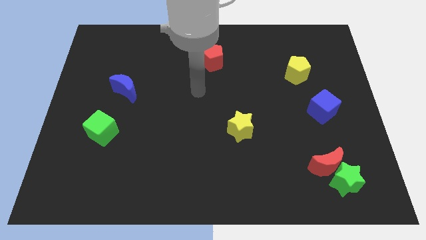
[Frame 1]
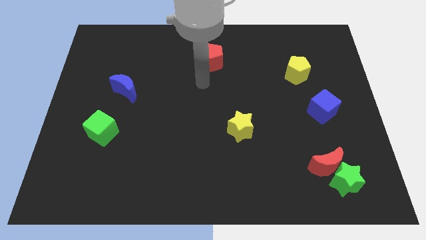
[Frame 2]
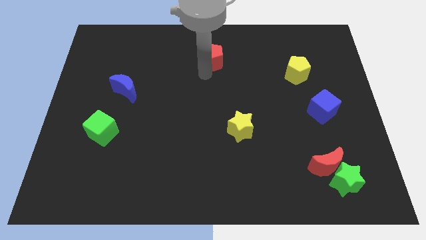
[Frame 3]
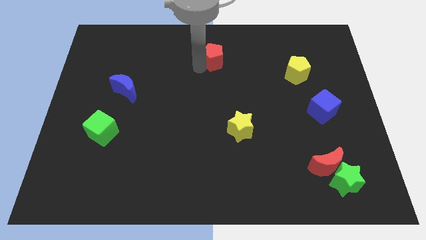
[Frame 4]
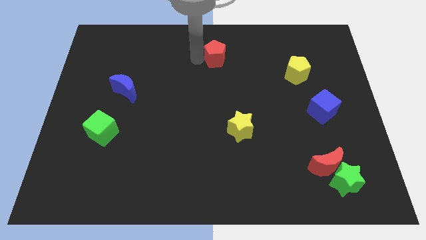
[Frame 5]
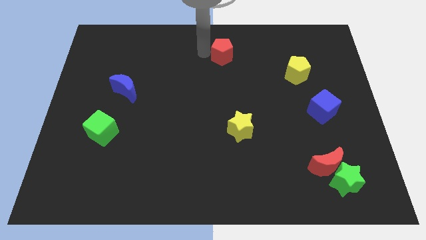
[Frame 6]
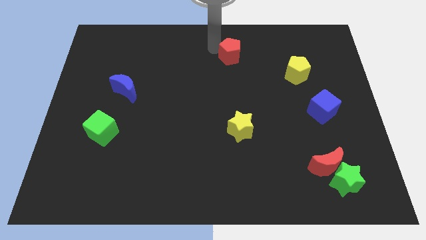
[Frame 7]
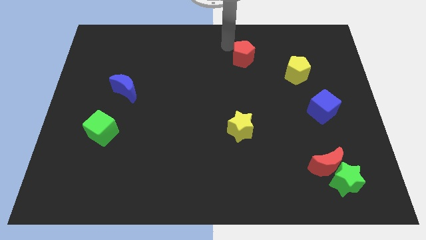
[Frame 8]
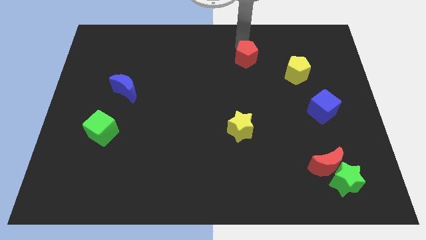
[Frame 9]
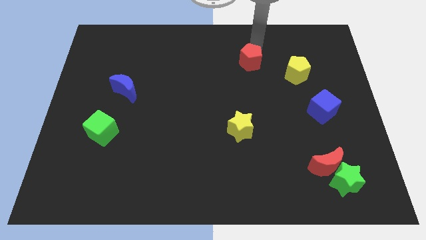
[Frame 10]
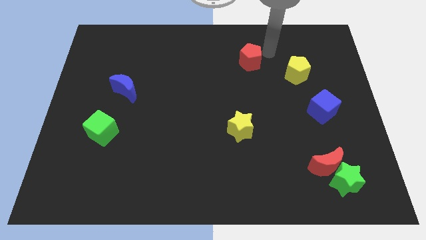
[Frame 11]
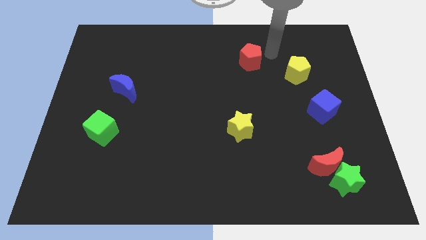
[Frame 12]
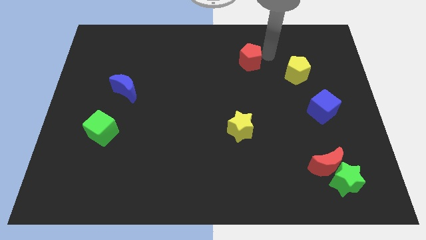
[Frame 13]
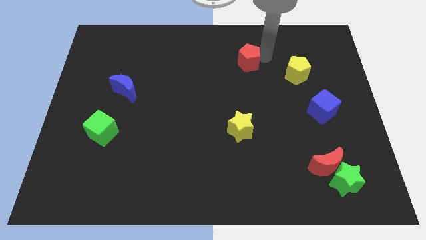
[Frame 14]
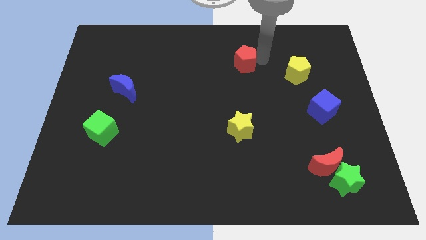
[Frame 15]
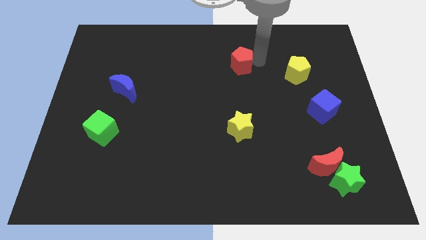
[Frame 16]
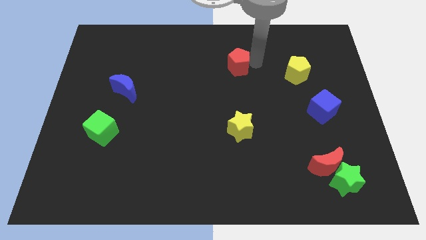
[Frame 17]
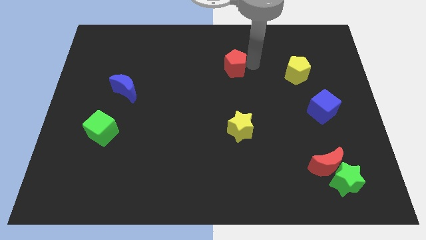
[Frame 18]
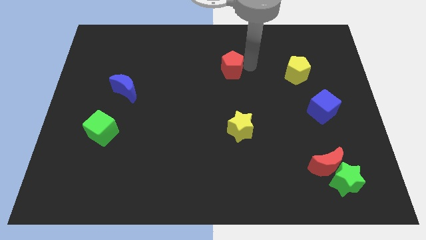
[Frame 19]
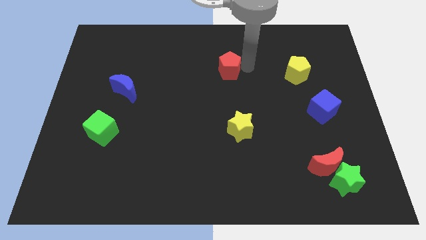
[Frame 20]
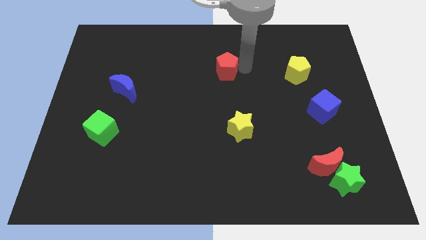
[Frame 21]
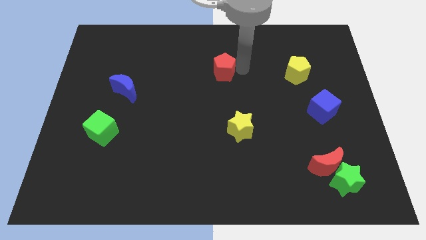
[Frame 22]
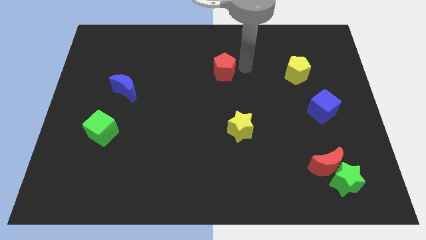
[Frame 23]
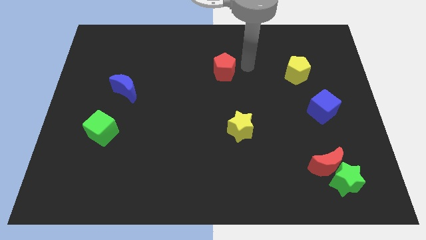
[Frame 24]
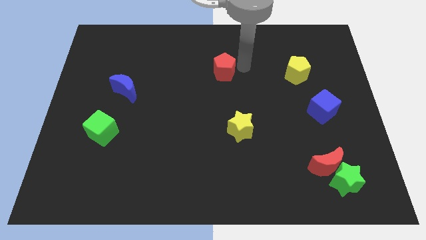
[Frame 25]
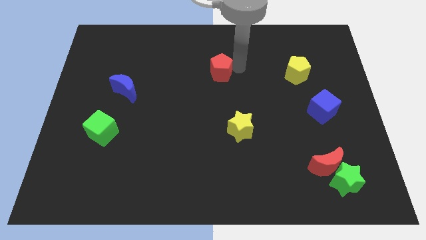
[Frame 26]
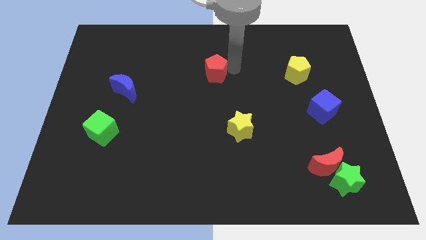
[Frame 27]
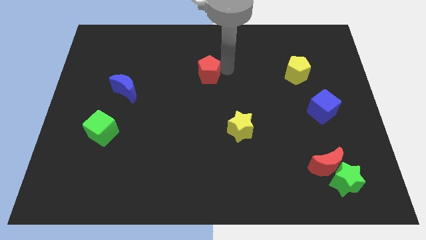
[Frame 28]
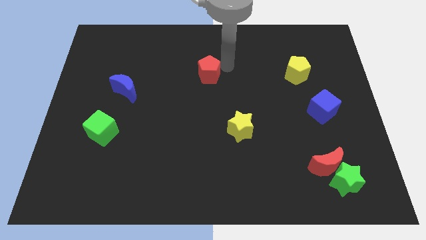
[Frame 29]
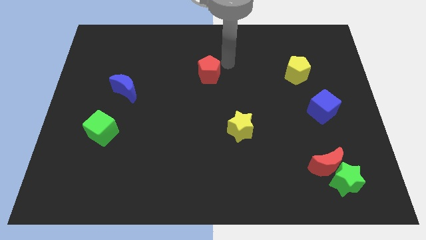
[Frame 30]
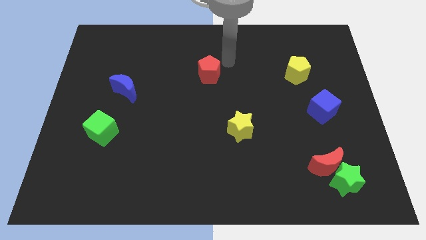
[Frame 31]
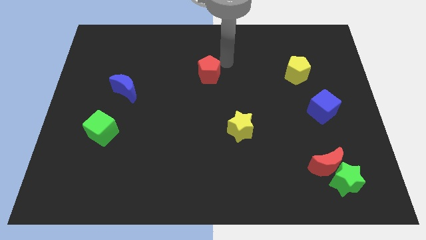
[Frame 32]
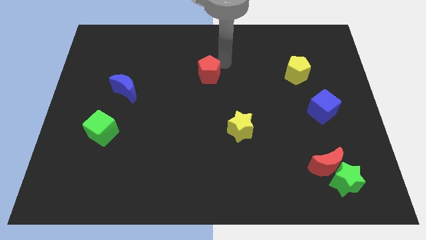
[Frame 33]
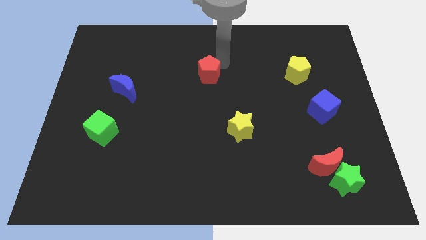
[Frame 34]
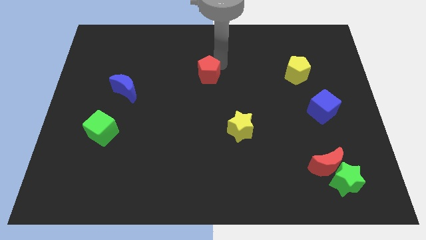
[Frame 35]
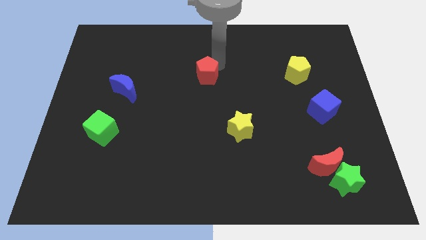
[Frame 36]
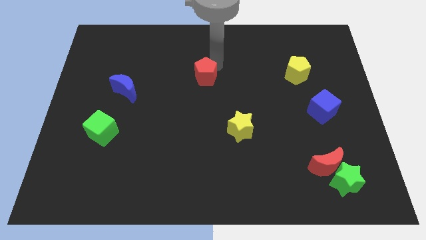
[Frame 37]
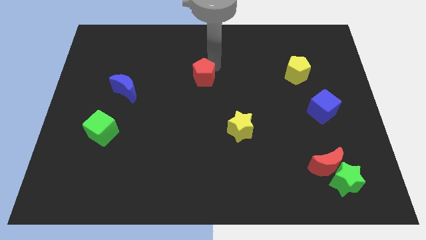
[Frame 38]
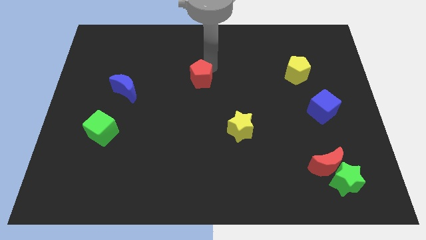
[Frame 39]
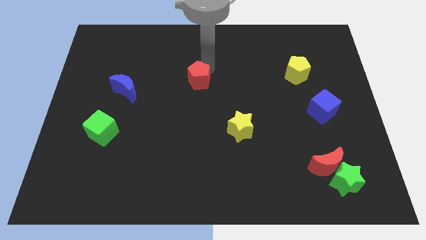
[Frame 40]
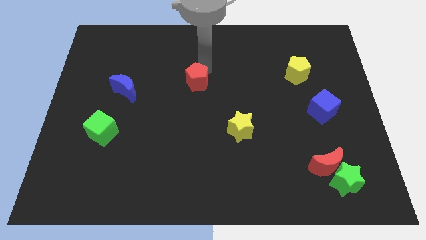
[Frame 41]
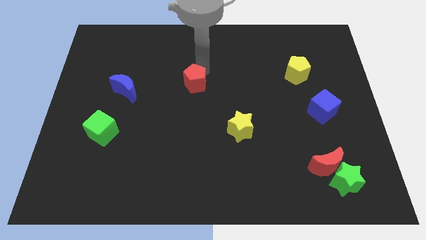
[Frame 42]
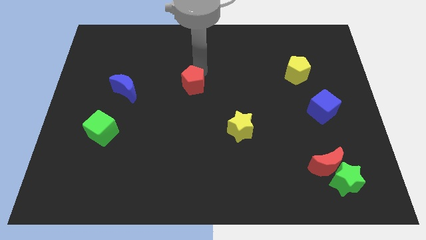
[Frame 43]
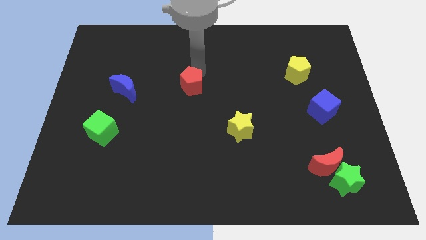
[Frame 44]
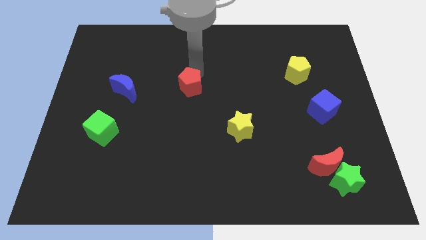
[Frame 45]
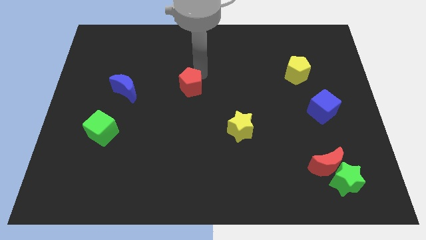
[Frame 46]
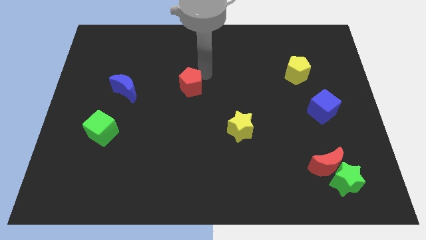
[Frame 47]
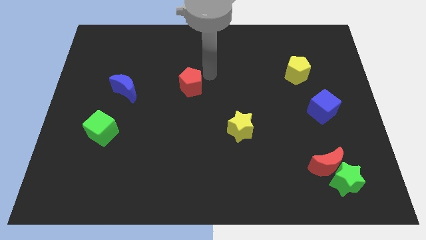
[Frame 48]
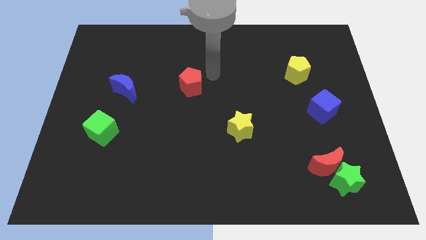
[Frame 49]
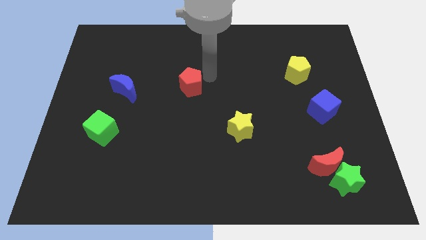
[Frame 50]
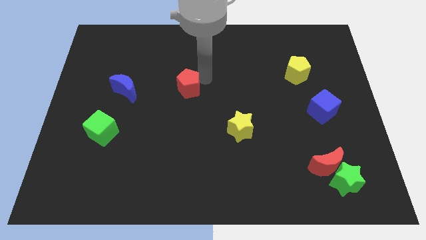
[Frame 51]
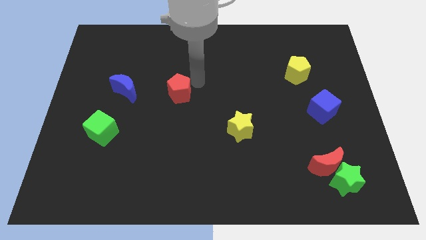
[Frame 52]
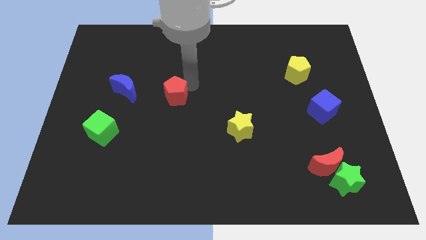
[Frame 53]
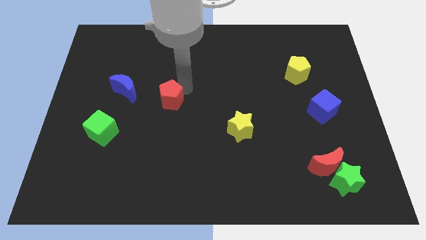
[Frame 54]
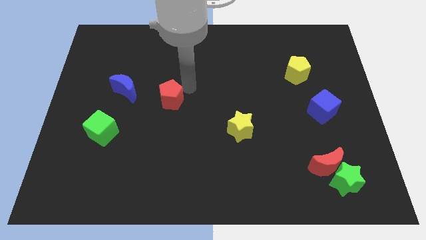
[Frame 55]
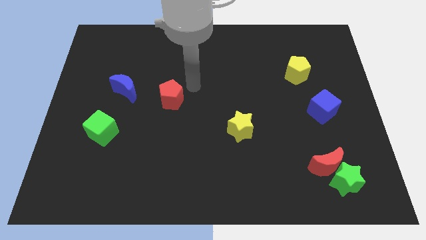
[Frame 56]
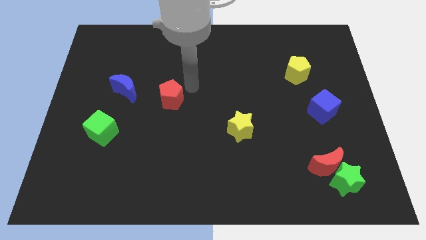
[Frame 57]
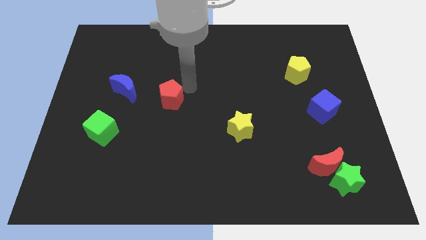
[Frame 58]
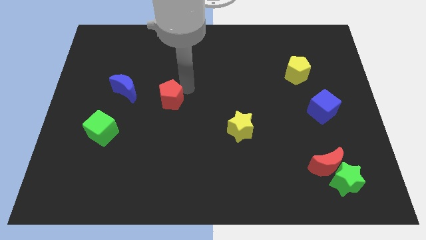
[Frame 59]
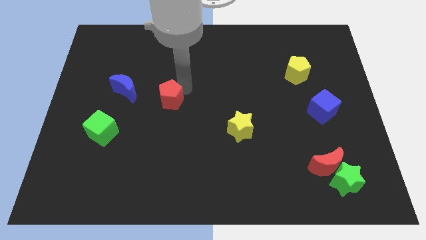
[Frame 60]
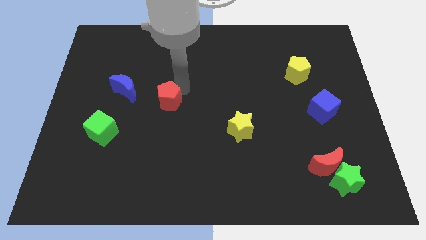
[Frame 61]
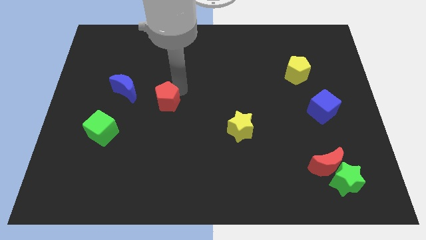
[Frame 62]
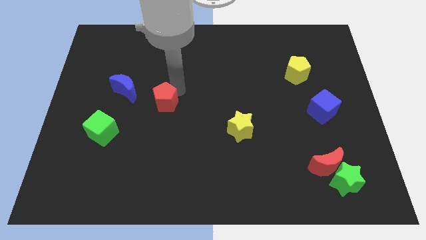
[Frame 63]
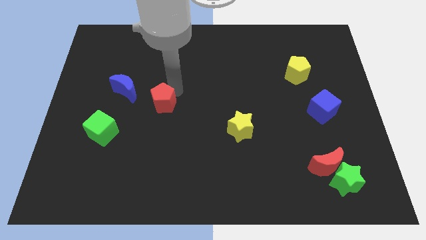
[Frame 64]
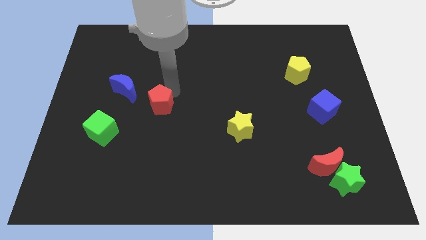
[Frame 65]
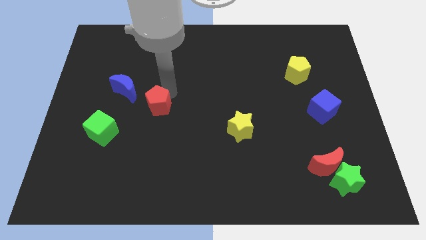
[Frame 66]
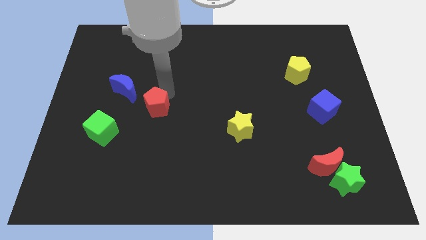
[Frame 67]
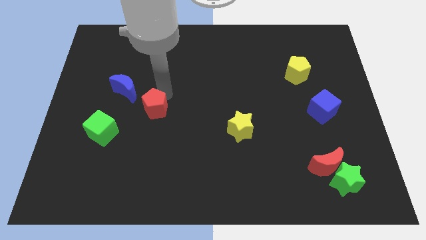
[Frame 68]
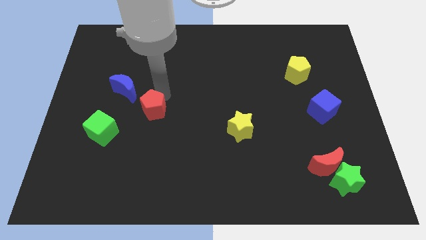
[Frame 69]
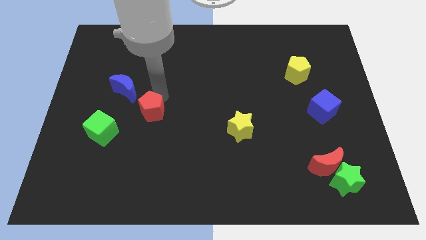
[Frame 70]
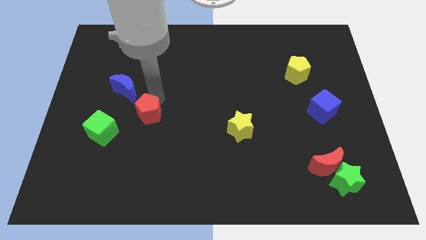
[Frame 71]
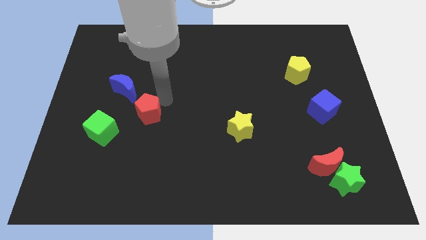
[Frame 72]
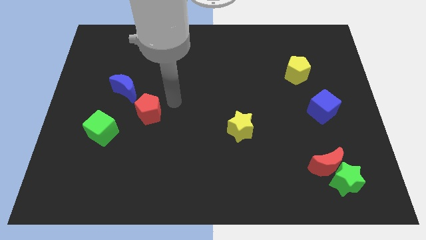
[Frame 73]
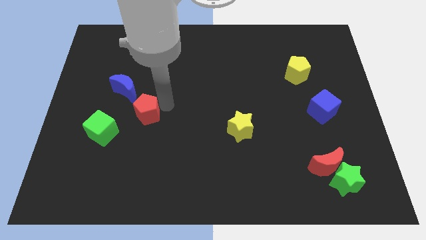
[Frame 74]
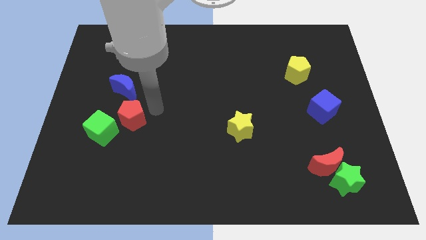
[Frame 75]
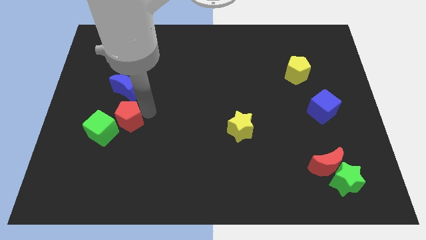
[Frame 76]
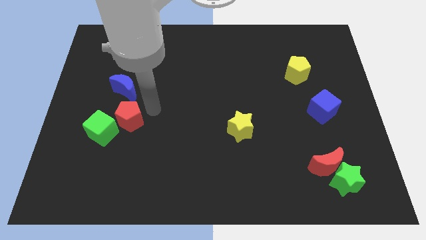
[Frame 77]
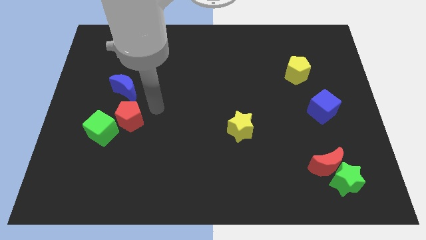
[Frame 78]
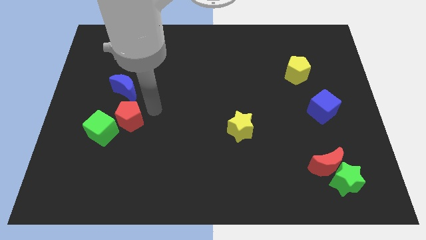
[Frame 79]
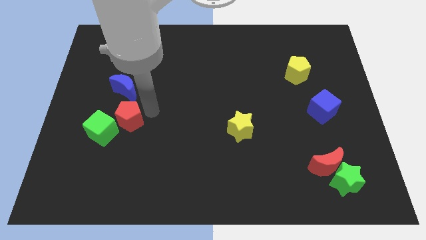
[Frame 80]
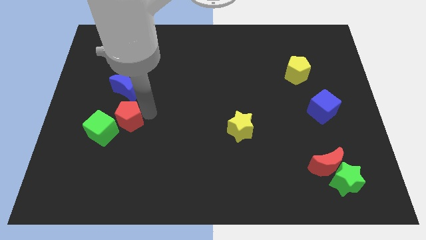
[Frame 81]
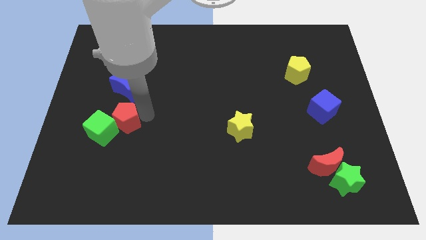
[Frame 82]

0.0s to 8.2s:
put the red pentagon next to the green cube
